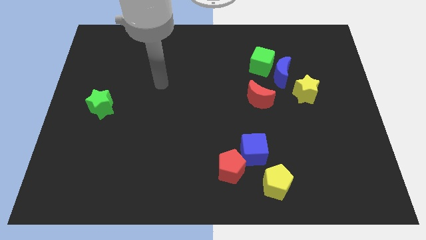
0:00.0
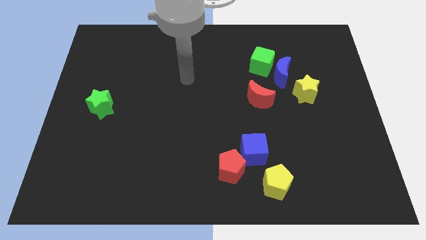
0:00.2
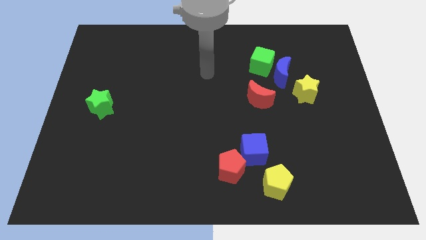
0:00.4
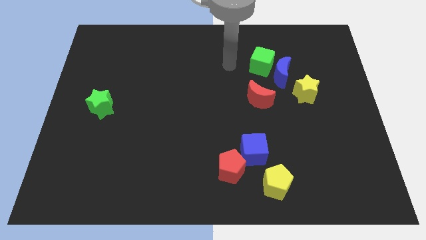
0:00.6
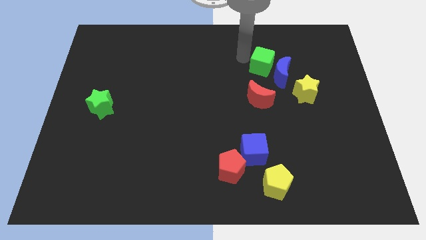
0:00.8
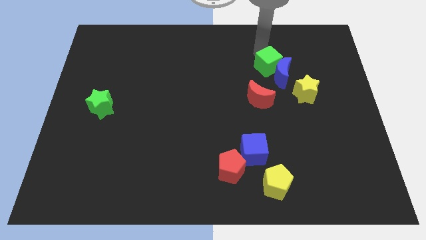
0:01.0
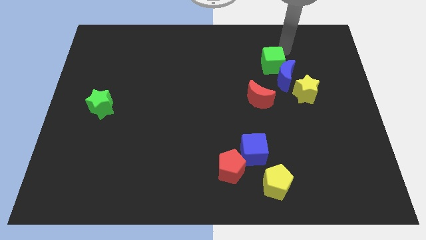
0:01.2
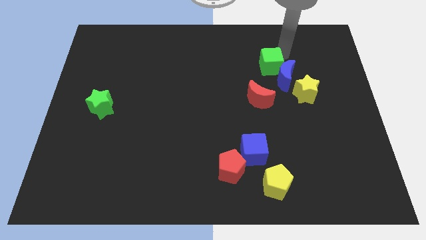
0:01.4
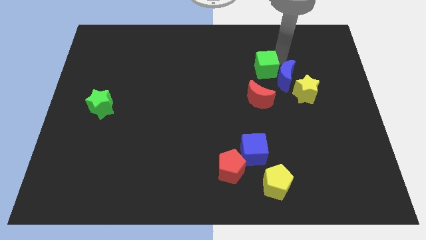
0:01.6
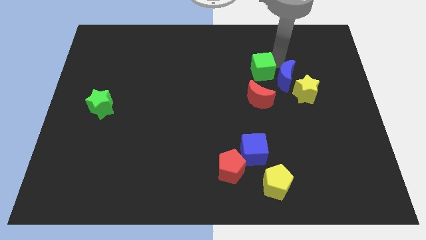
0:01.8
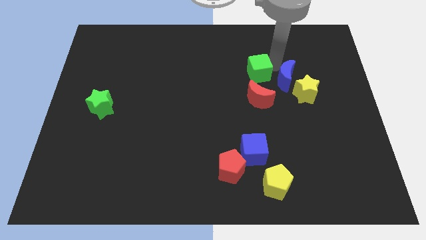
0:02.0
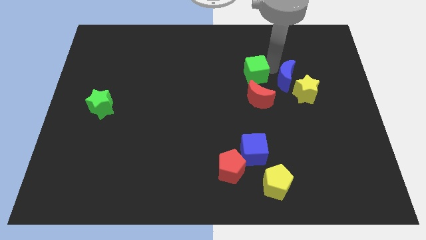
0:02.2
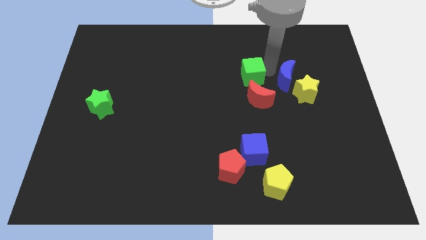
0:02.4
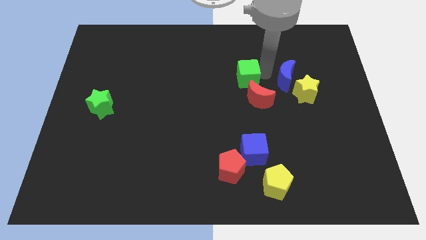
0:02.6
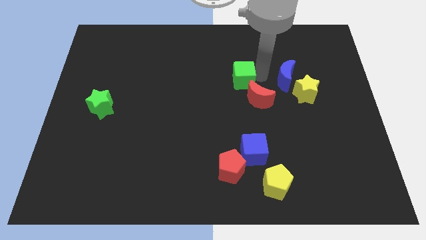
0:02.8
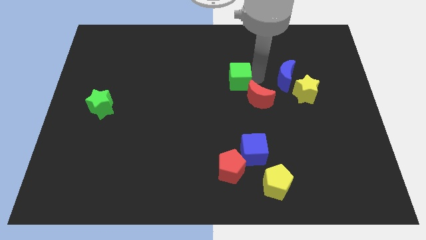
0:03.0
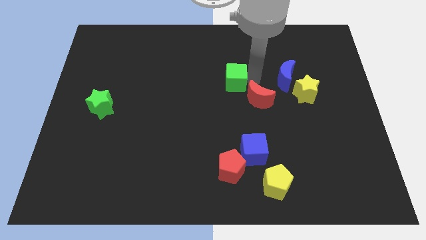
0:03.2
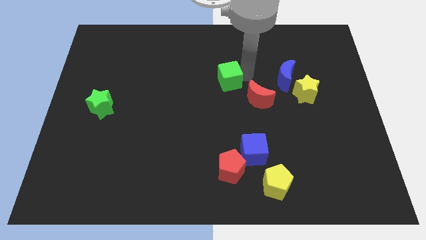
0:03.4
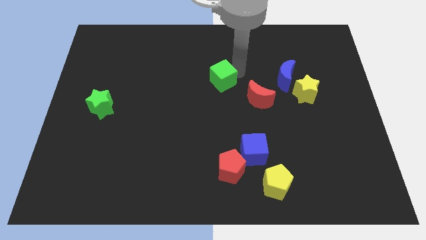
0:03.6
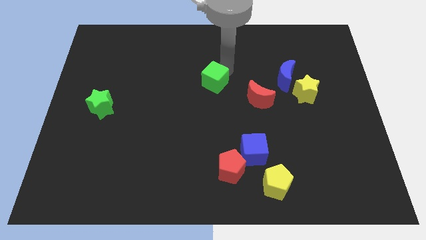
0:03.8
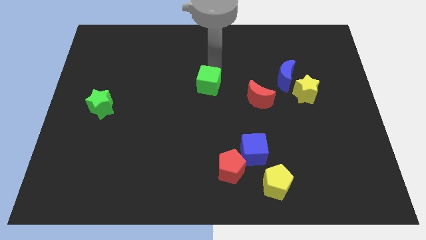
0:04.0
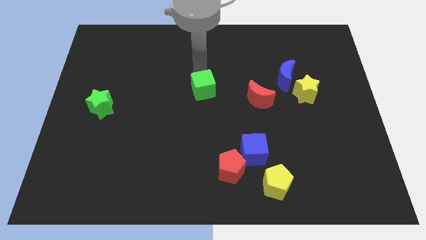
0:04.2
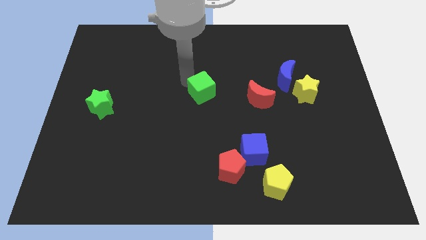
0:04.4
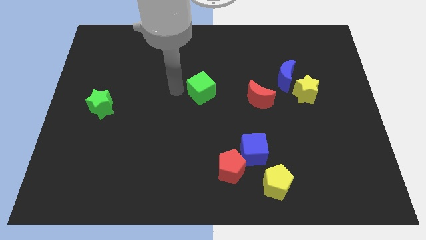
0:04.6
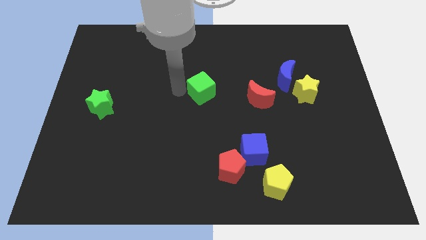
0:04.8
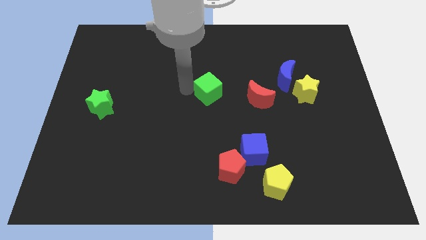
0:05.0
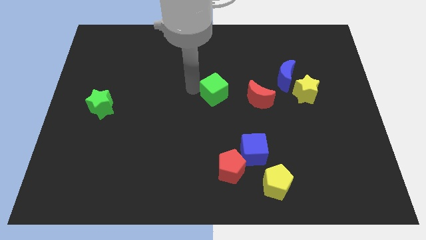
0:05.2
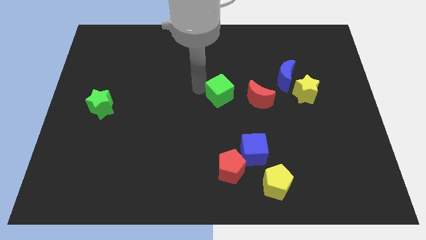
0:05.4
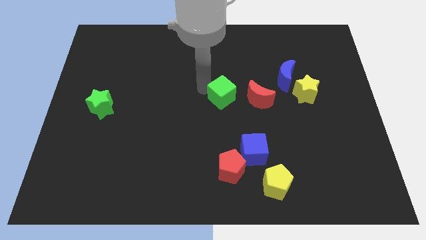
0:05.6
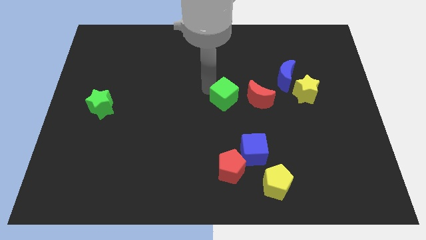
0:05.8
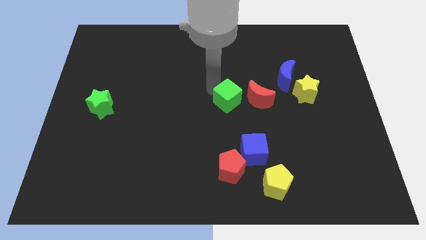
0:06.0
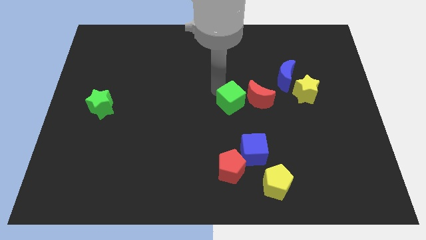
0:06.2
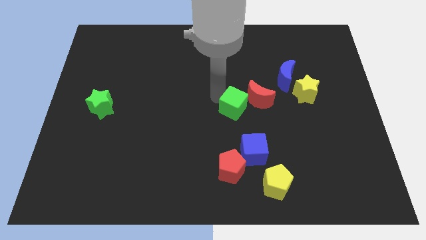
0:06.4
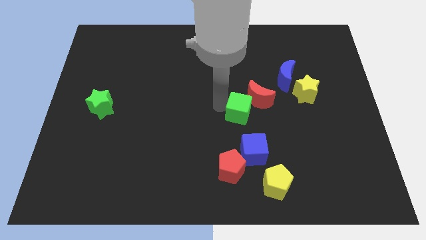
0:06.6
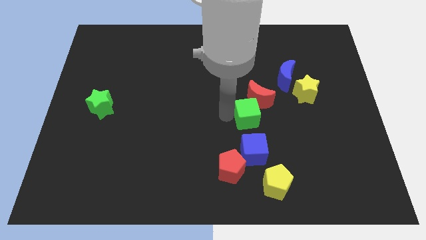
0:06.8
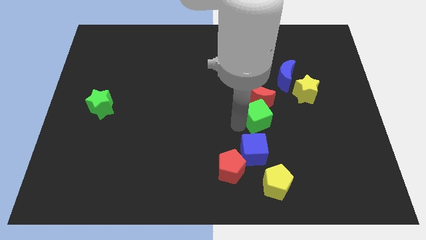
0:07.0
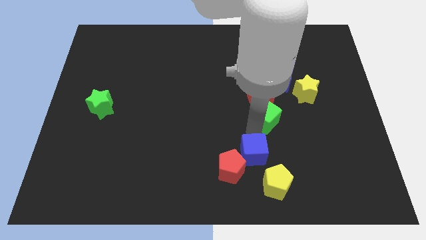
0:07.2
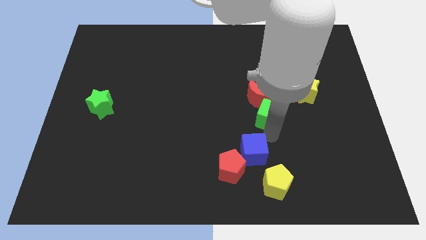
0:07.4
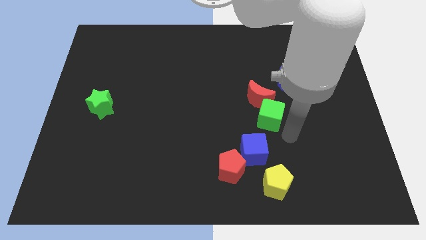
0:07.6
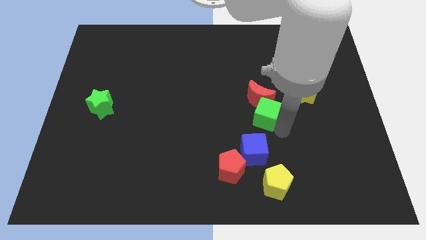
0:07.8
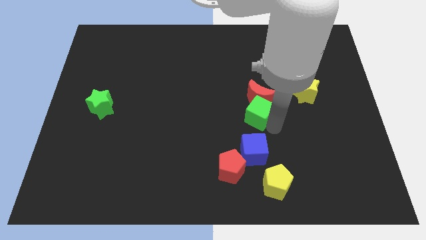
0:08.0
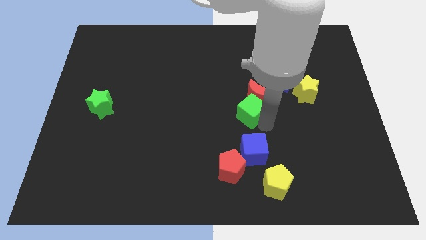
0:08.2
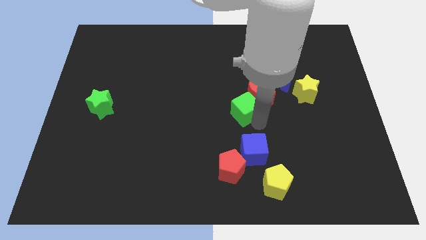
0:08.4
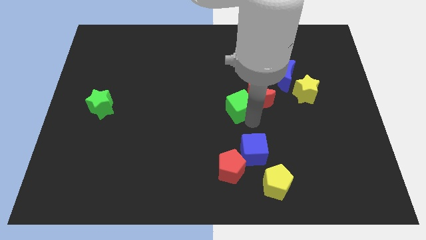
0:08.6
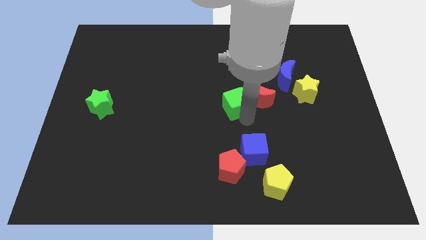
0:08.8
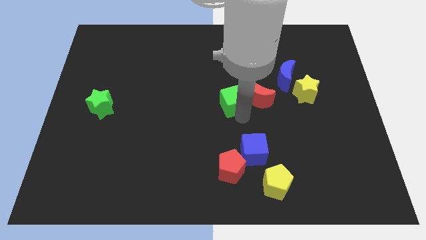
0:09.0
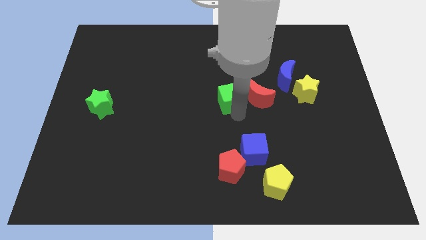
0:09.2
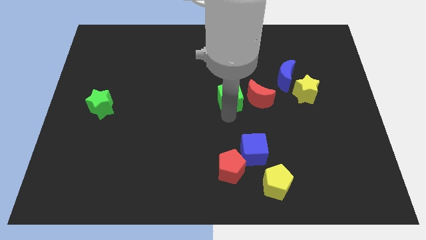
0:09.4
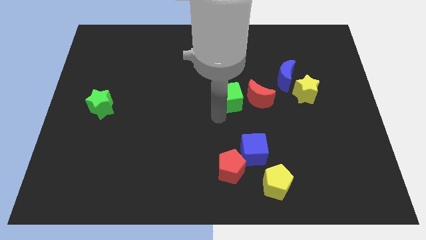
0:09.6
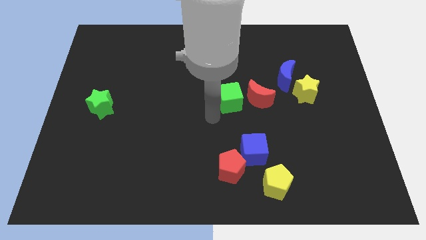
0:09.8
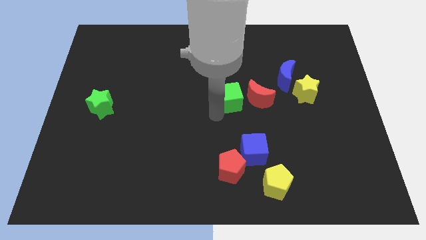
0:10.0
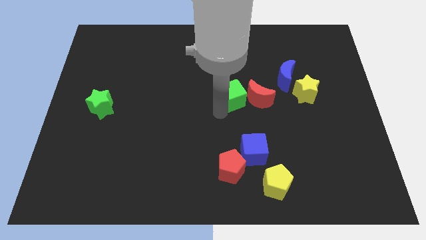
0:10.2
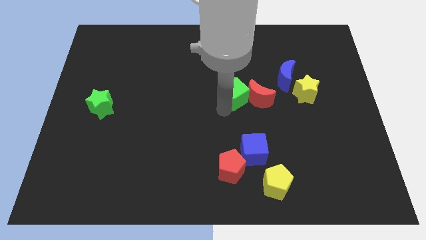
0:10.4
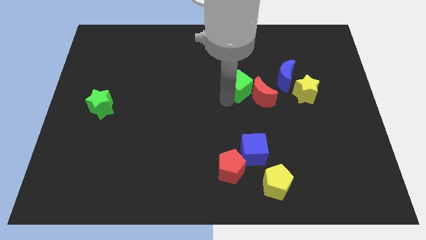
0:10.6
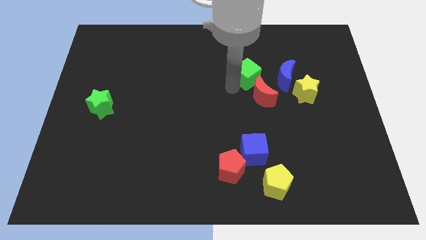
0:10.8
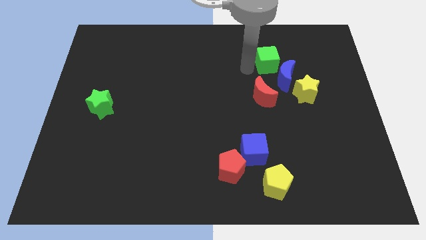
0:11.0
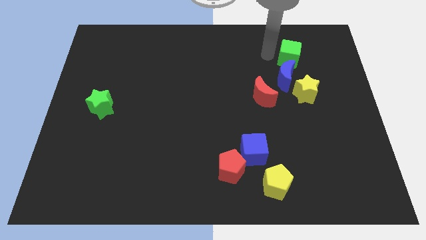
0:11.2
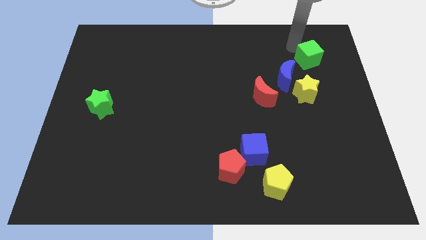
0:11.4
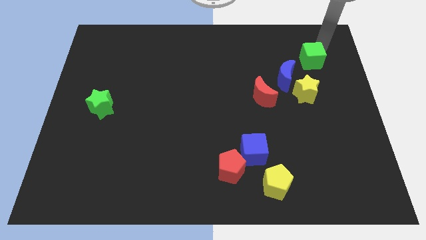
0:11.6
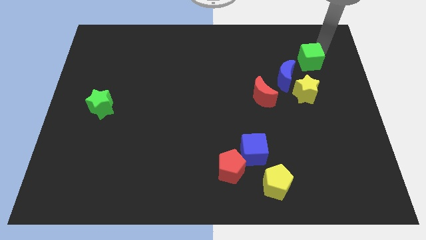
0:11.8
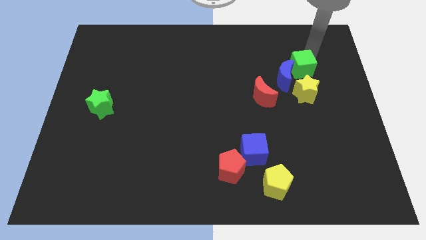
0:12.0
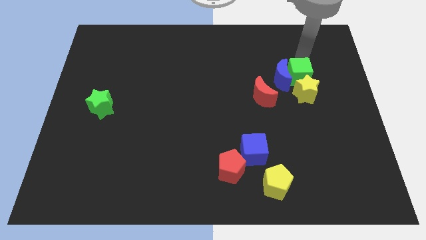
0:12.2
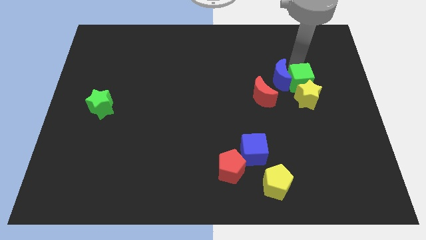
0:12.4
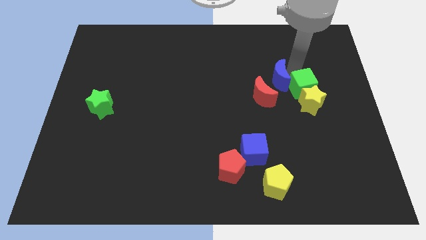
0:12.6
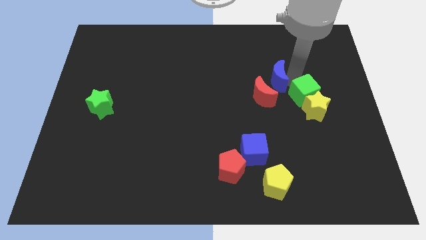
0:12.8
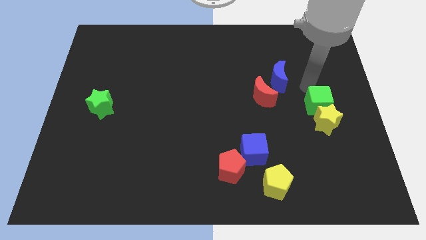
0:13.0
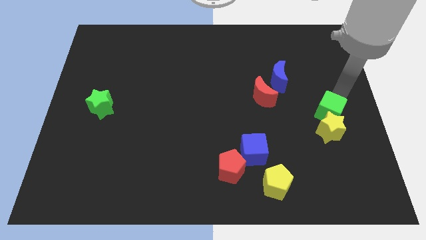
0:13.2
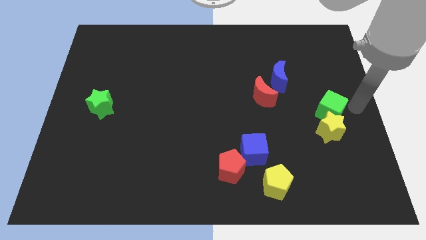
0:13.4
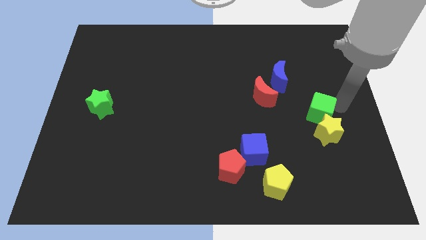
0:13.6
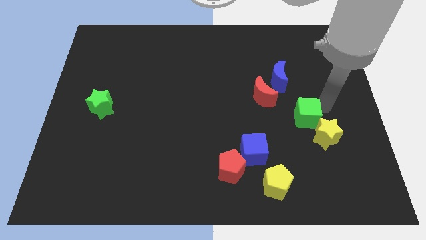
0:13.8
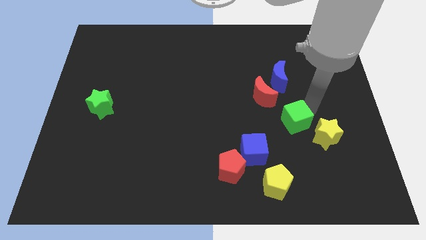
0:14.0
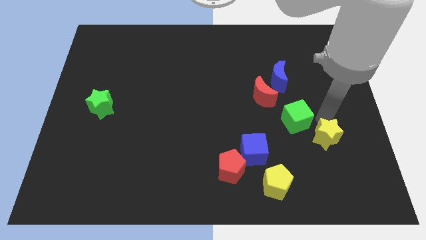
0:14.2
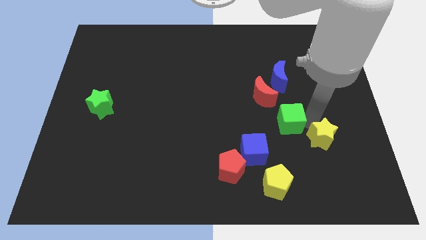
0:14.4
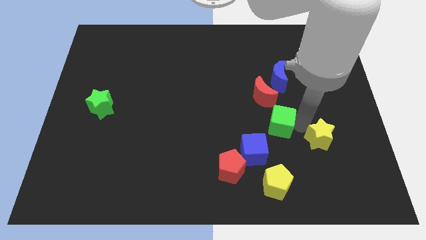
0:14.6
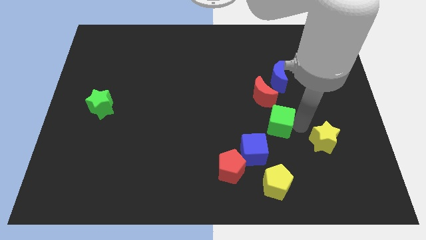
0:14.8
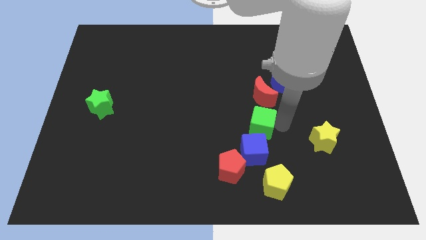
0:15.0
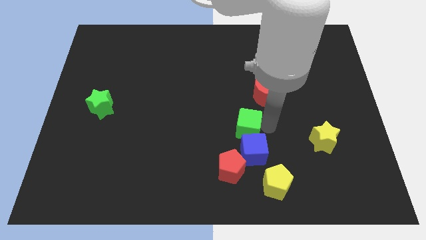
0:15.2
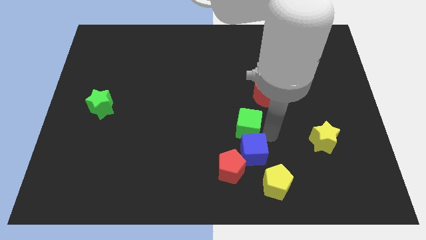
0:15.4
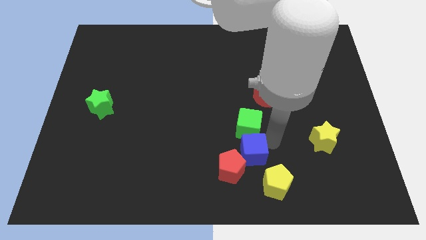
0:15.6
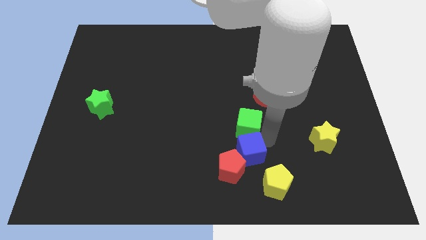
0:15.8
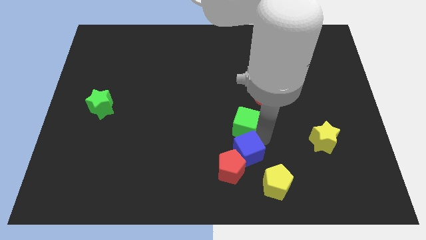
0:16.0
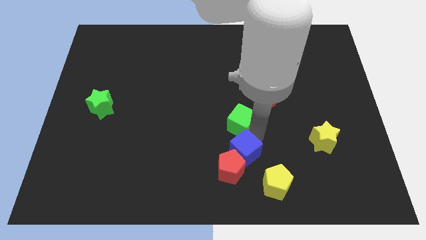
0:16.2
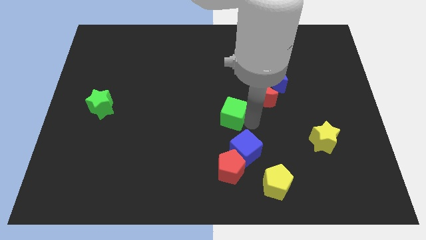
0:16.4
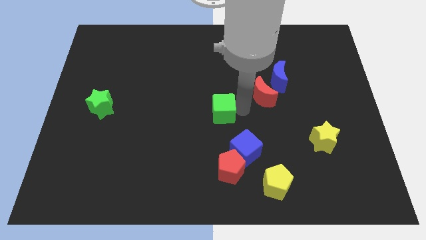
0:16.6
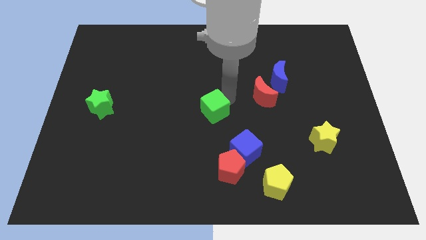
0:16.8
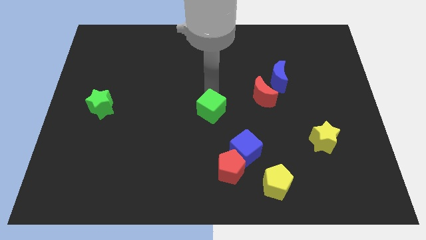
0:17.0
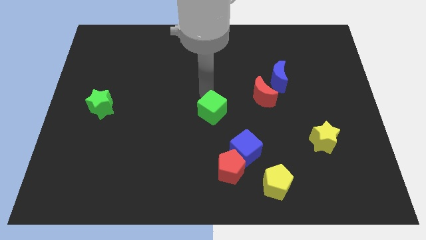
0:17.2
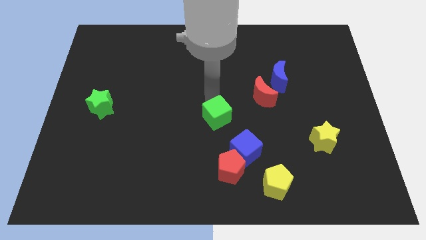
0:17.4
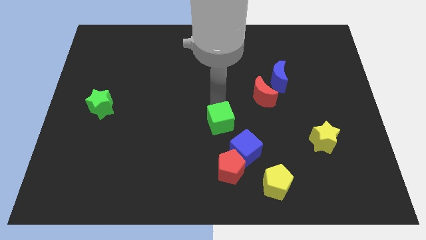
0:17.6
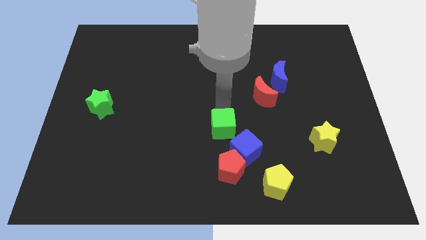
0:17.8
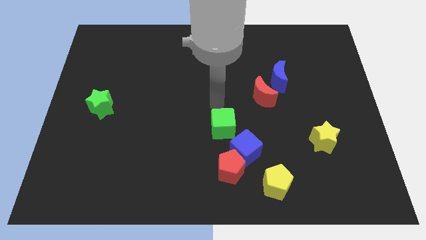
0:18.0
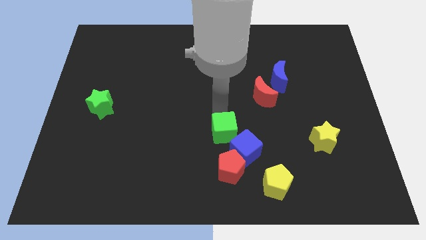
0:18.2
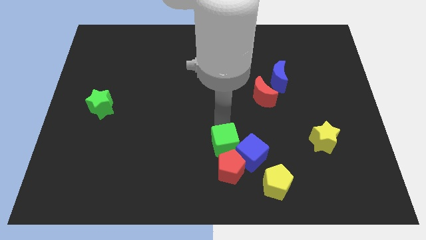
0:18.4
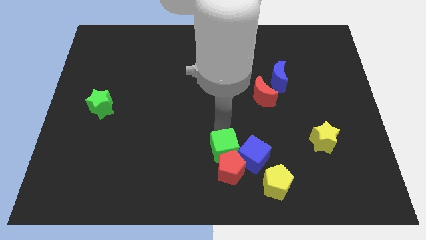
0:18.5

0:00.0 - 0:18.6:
push the green cube close to the red pentagon
